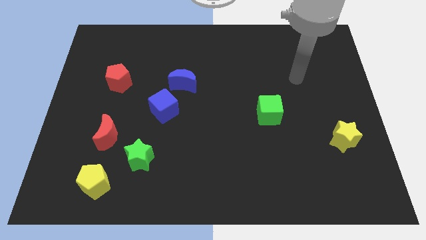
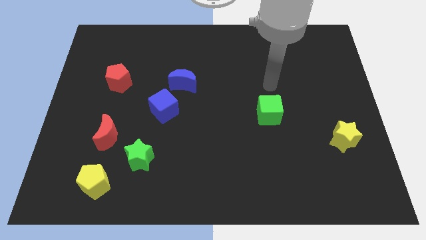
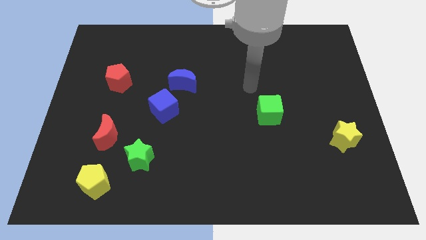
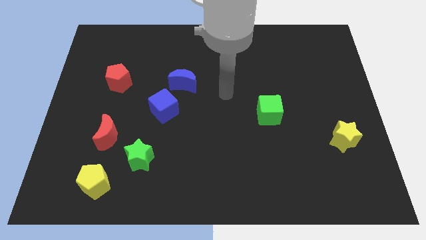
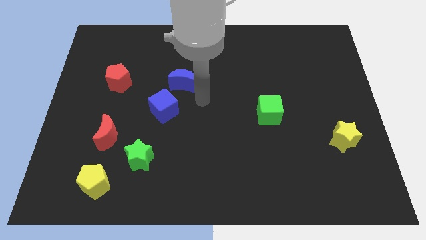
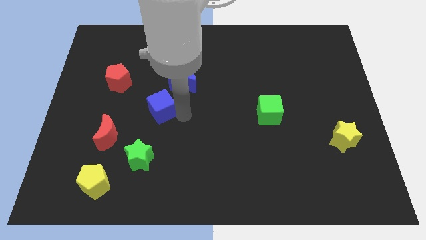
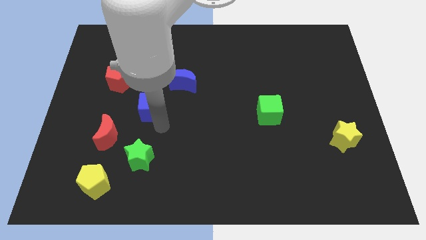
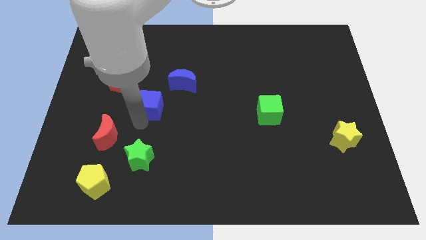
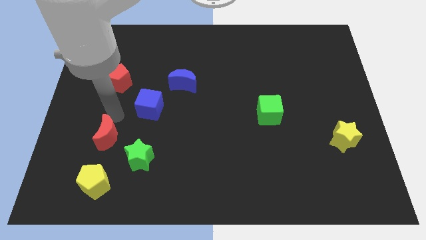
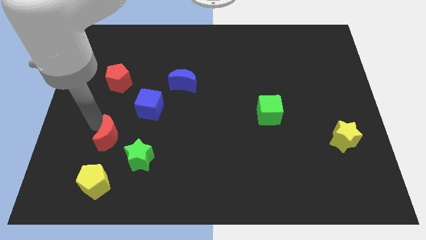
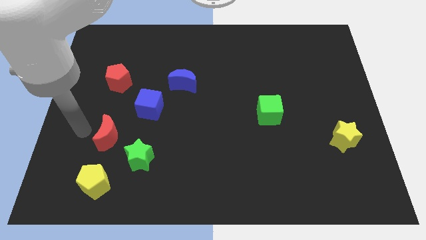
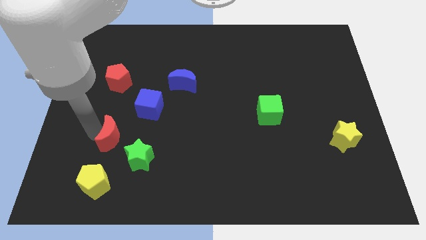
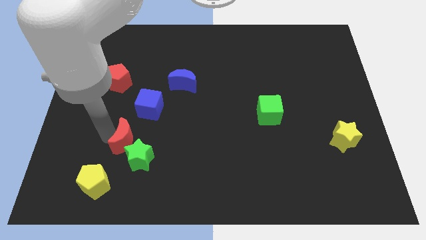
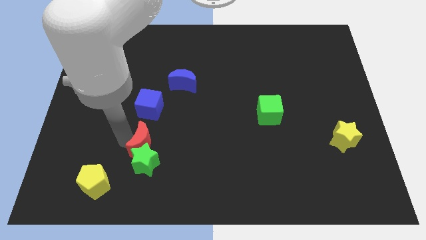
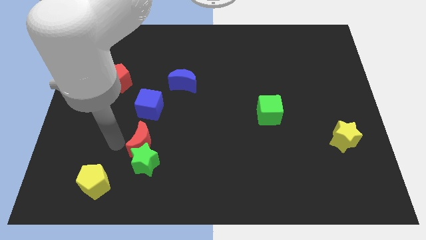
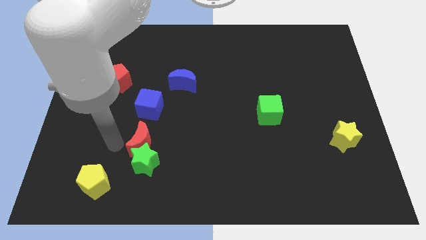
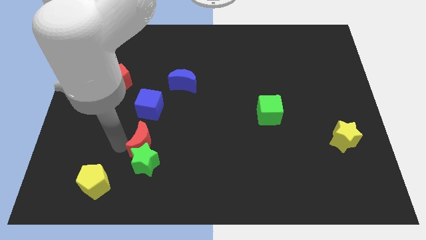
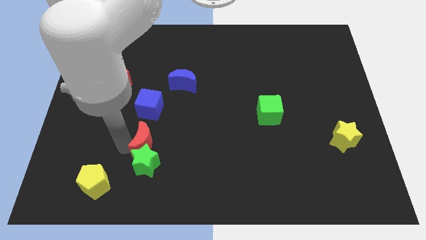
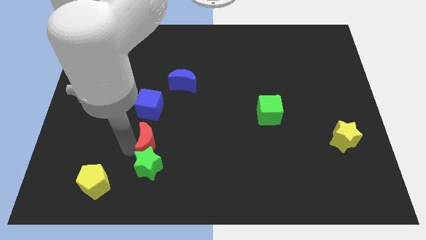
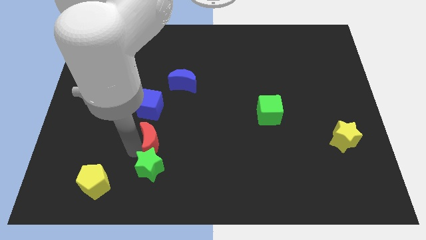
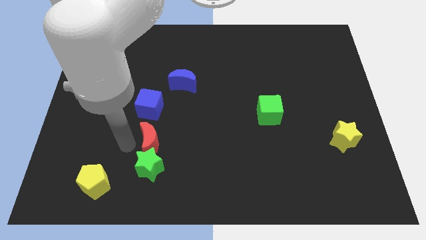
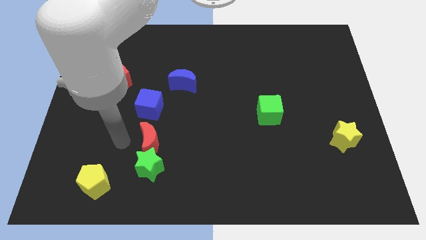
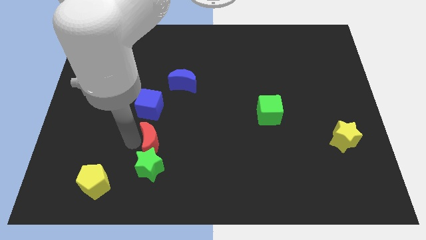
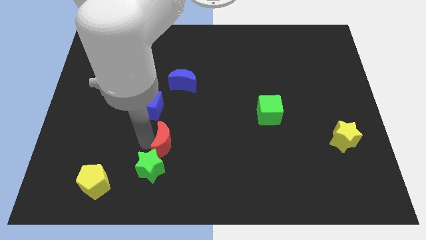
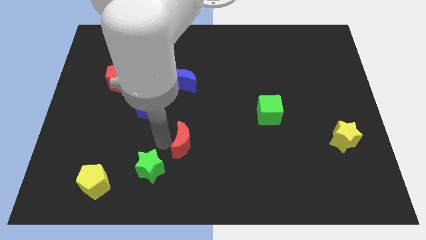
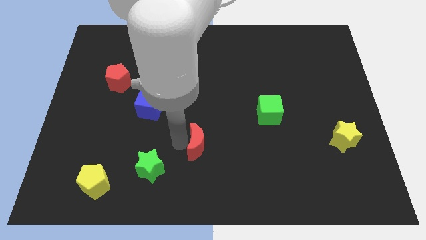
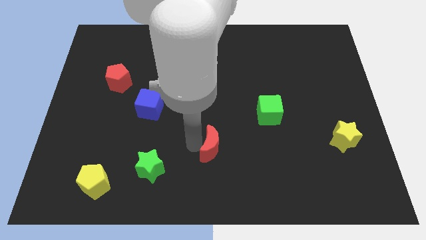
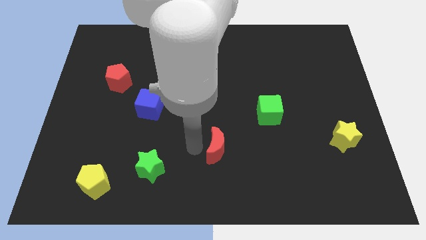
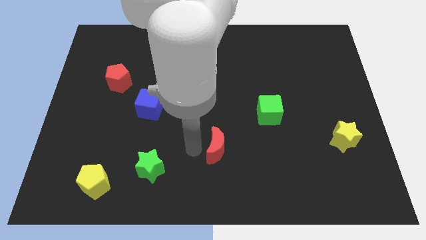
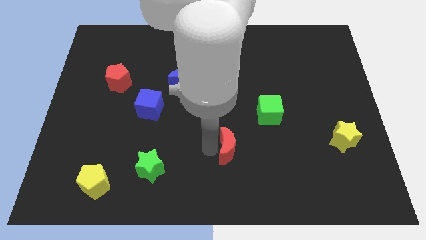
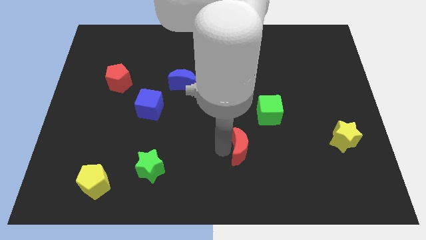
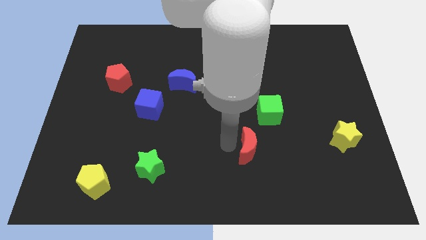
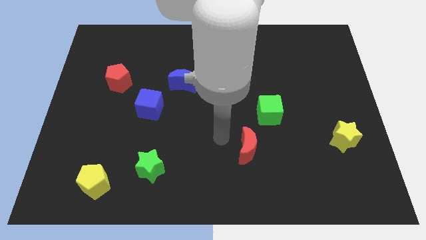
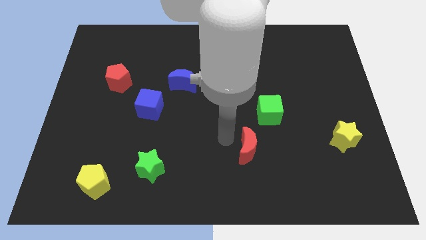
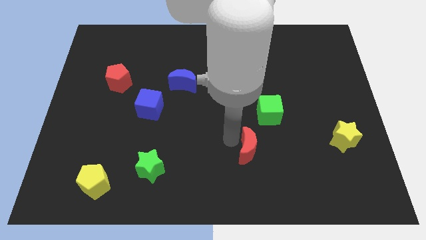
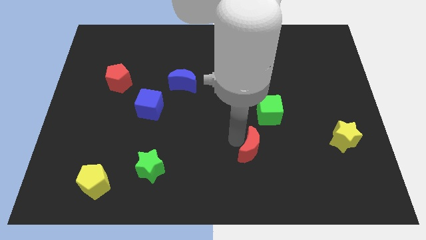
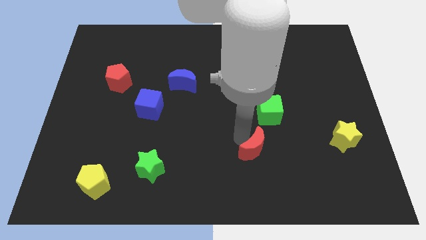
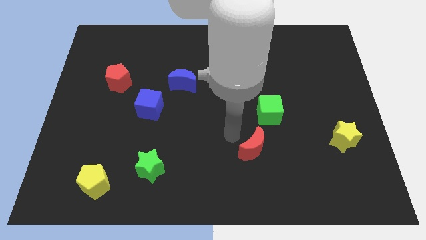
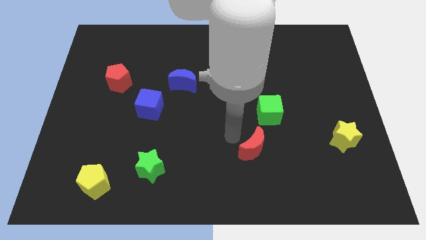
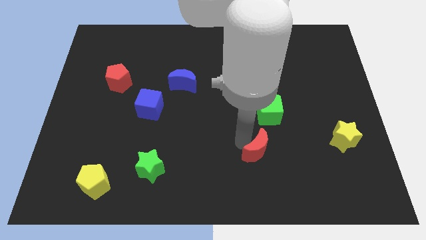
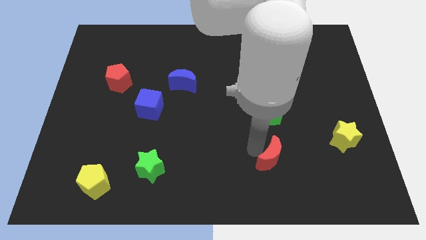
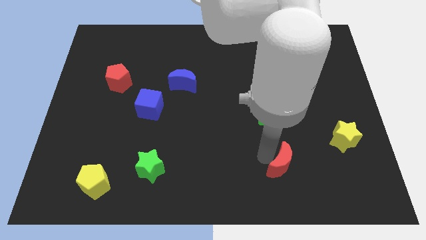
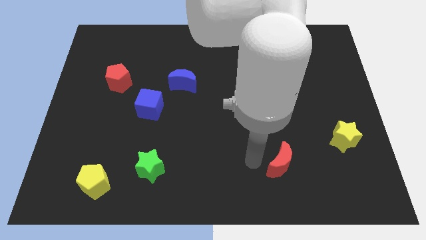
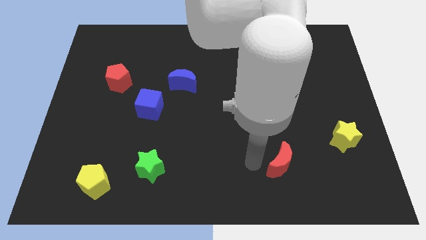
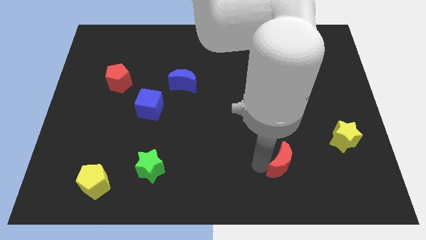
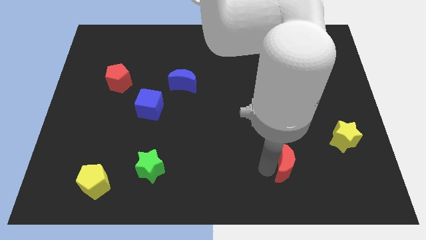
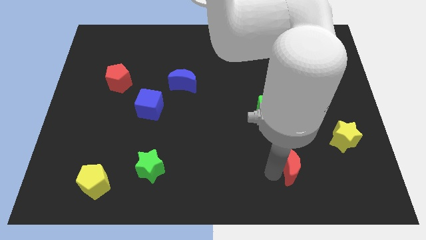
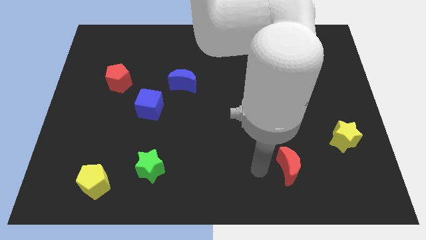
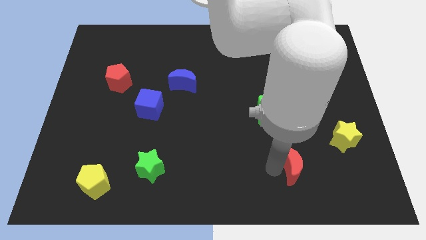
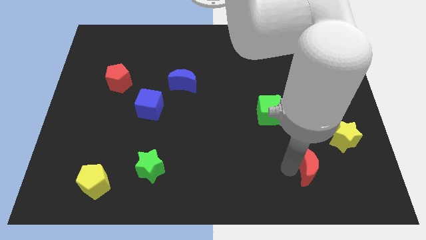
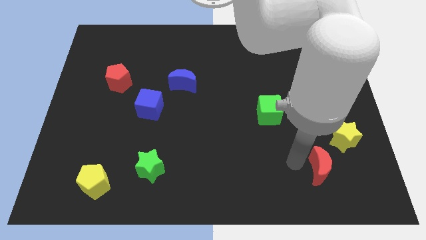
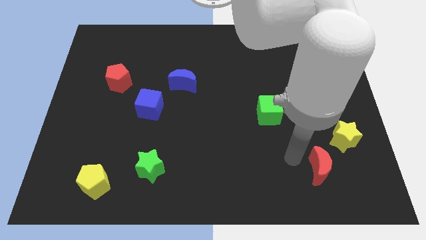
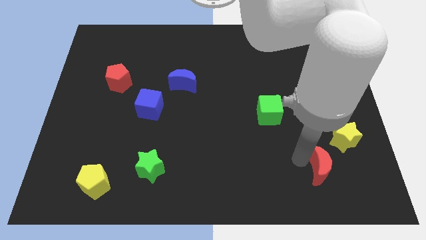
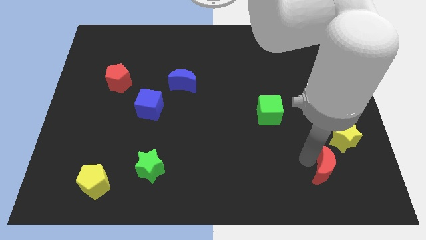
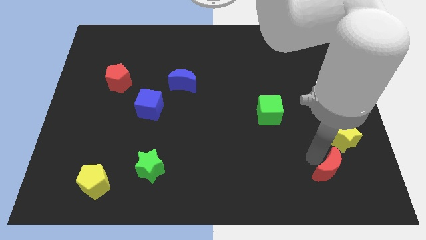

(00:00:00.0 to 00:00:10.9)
move the red moon below the yellow star
